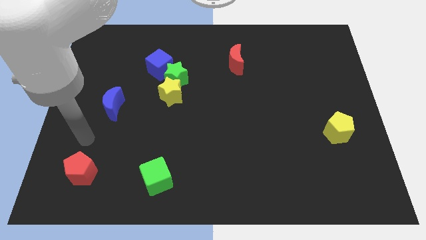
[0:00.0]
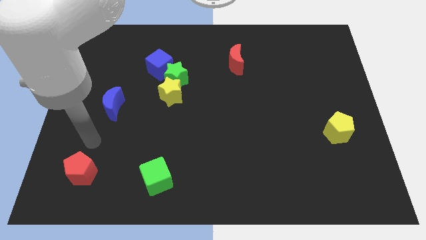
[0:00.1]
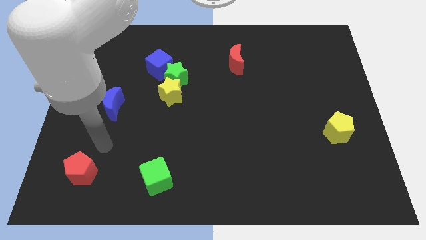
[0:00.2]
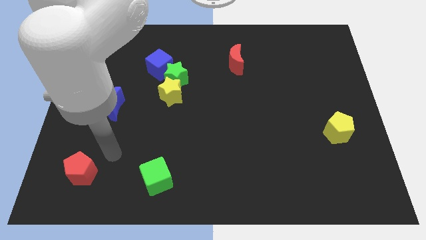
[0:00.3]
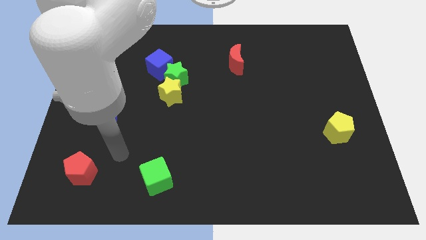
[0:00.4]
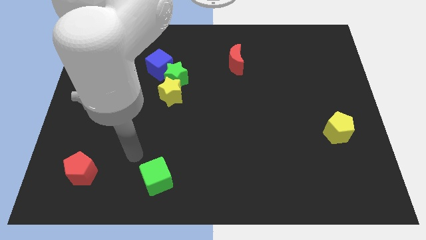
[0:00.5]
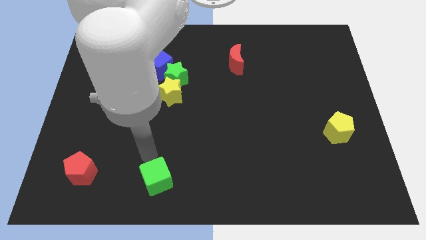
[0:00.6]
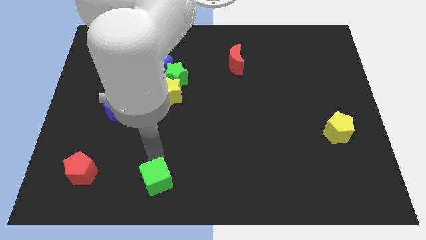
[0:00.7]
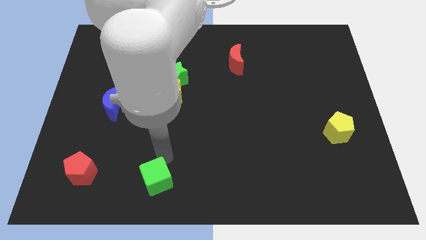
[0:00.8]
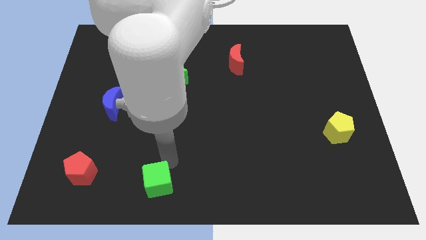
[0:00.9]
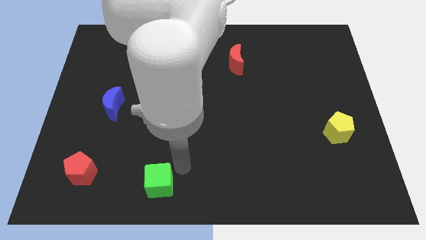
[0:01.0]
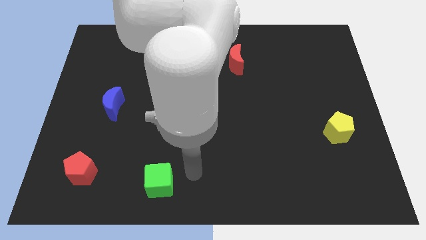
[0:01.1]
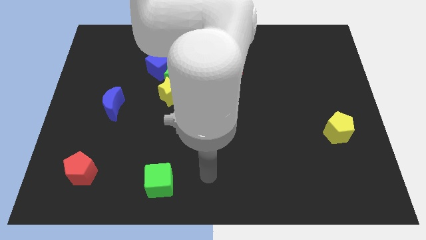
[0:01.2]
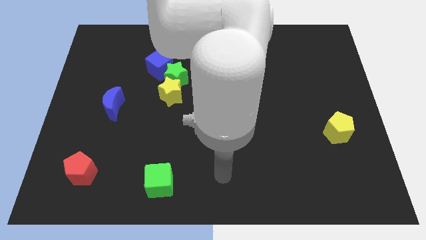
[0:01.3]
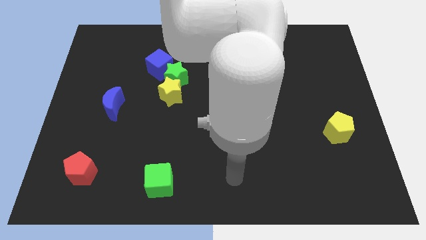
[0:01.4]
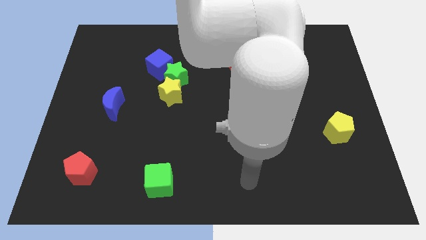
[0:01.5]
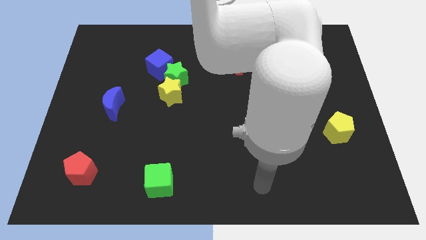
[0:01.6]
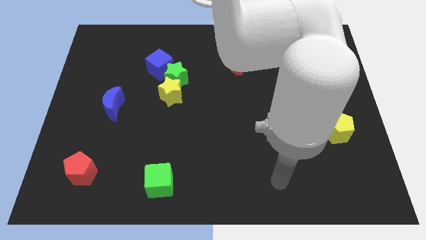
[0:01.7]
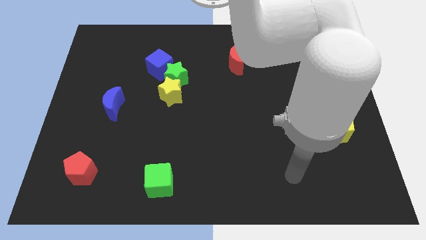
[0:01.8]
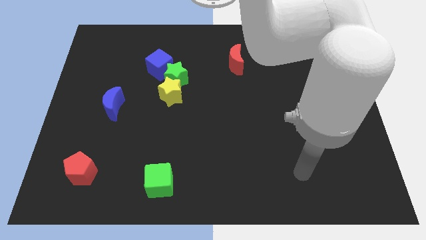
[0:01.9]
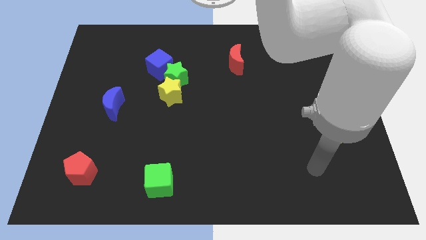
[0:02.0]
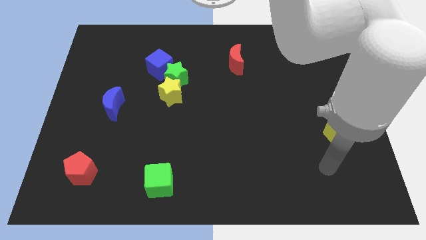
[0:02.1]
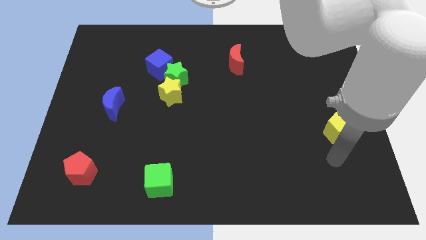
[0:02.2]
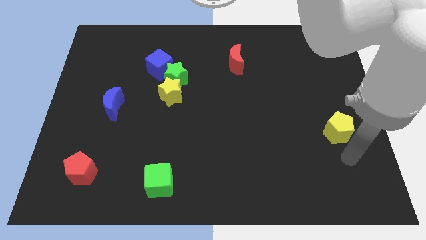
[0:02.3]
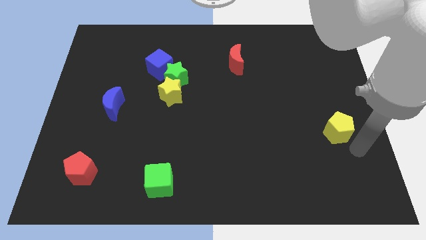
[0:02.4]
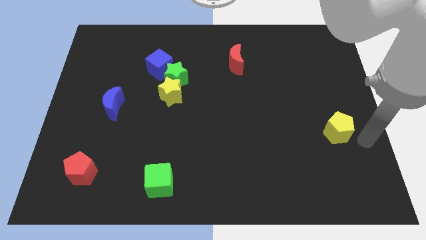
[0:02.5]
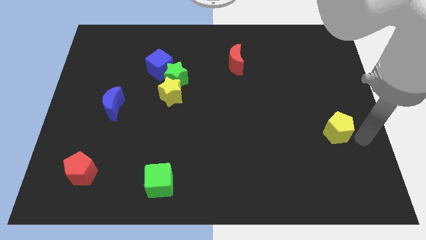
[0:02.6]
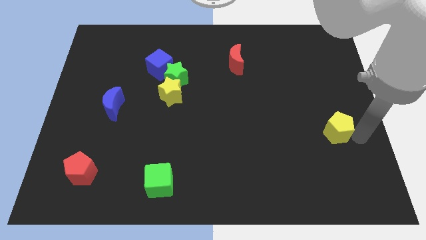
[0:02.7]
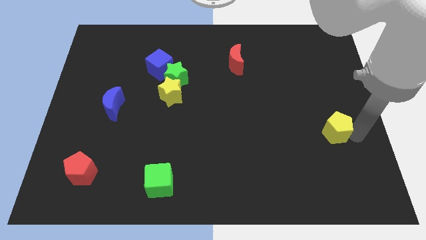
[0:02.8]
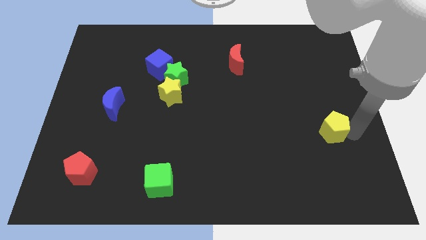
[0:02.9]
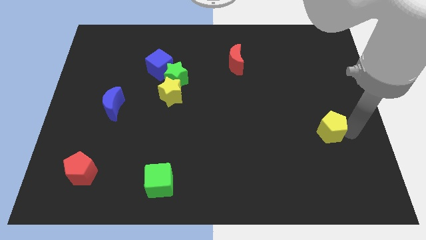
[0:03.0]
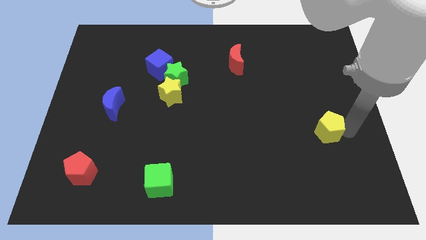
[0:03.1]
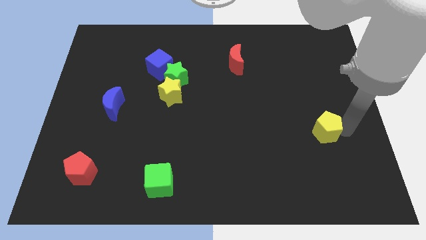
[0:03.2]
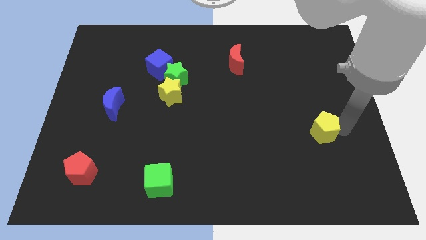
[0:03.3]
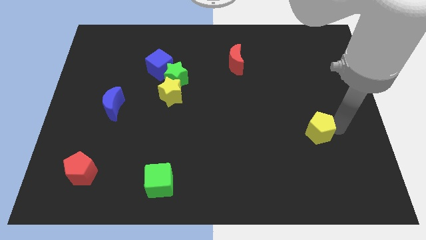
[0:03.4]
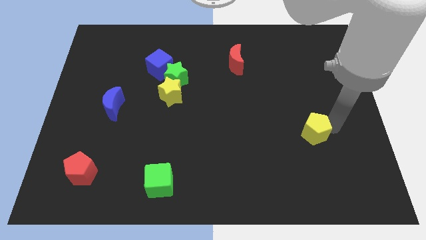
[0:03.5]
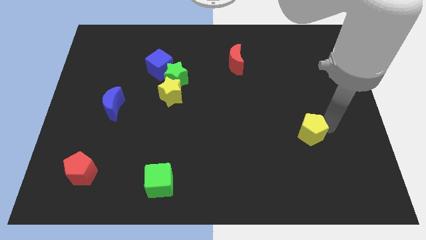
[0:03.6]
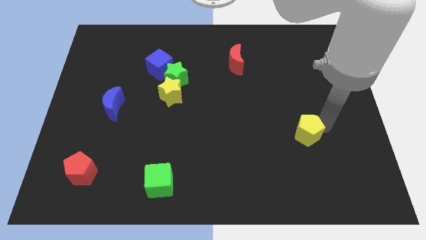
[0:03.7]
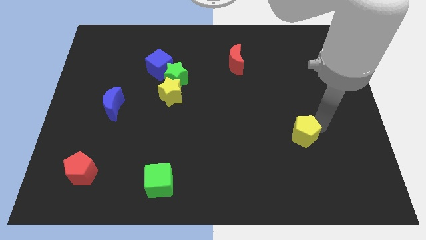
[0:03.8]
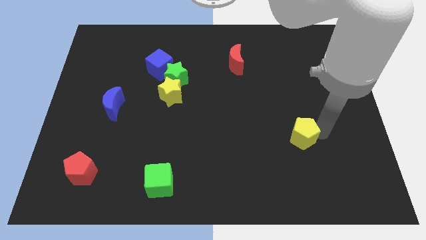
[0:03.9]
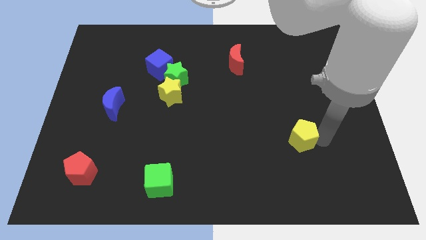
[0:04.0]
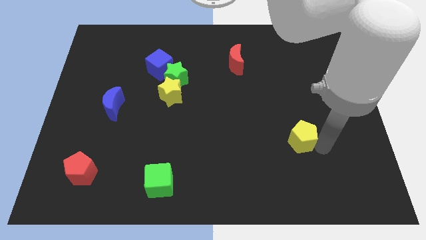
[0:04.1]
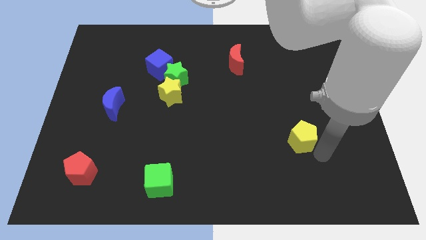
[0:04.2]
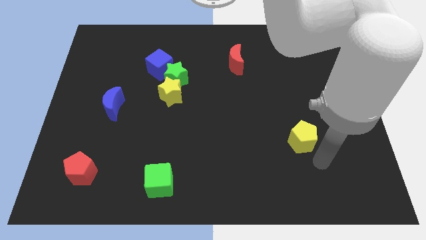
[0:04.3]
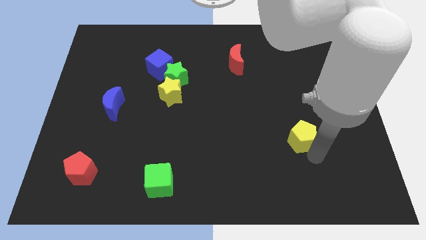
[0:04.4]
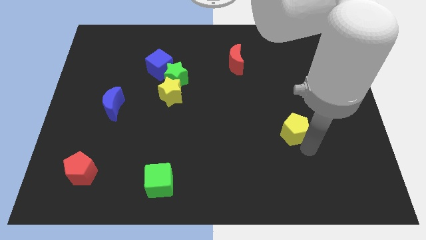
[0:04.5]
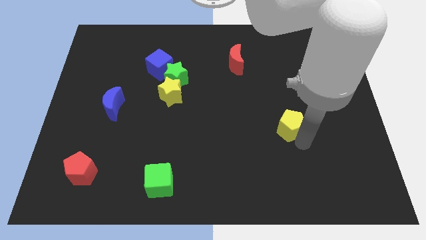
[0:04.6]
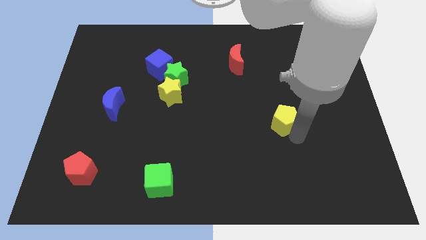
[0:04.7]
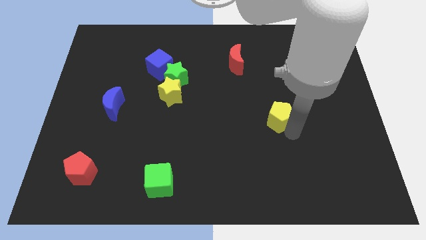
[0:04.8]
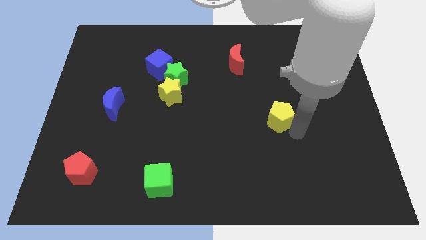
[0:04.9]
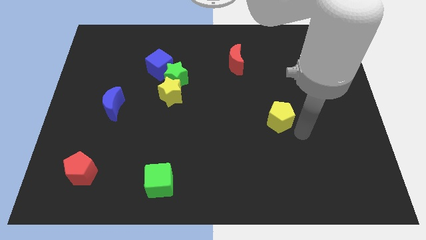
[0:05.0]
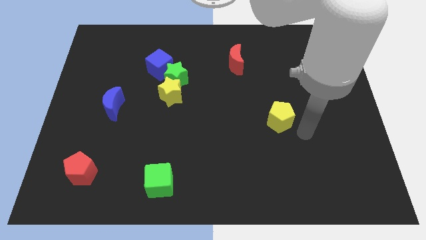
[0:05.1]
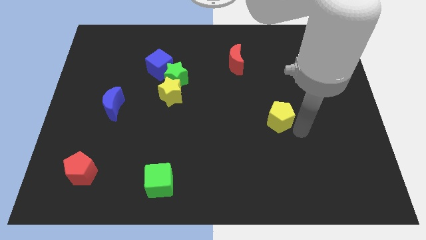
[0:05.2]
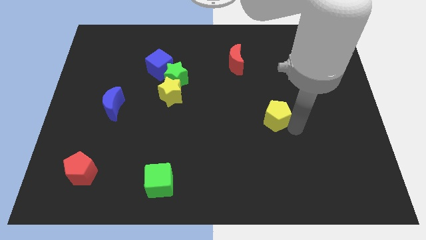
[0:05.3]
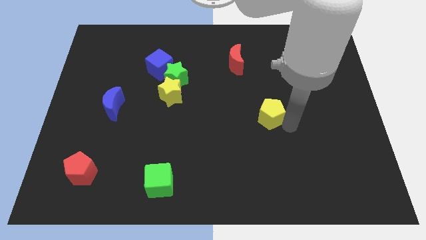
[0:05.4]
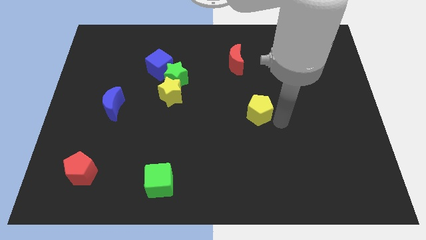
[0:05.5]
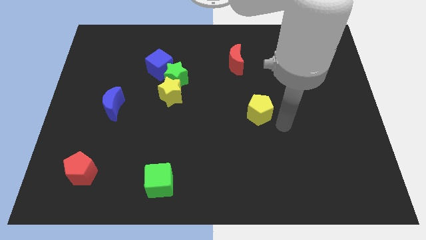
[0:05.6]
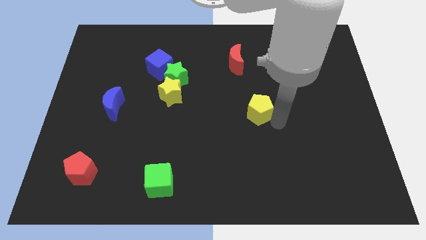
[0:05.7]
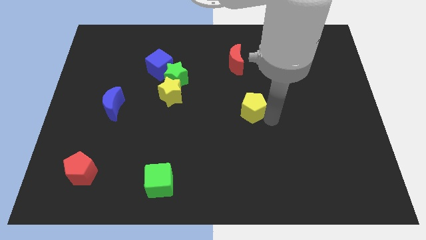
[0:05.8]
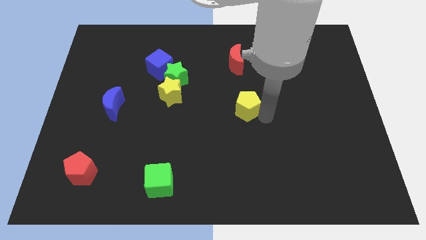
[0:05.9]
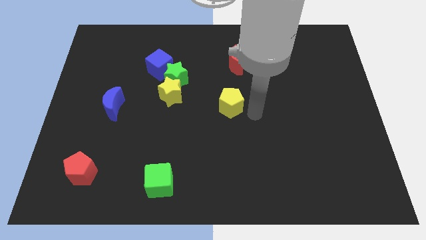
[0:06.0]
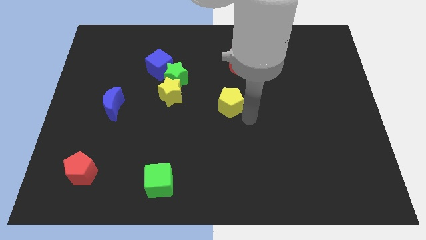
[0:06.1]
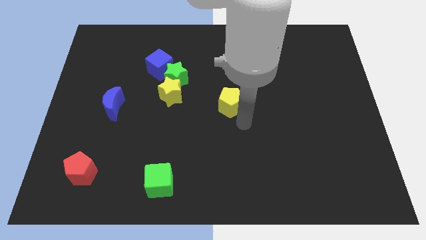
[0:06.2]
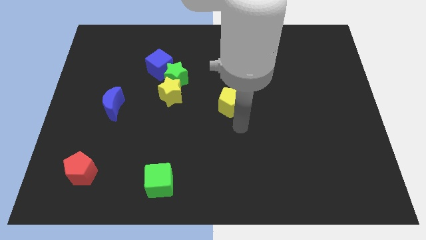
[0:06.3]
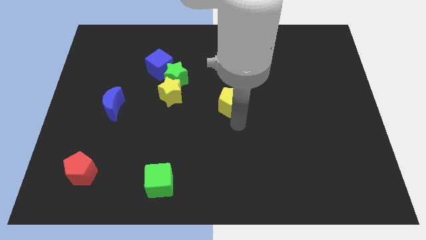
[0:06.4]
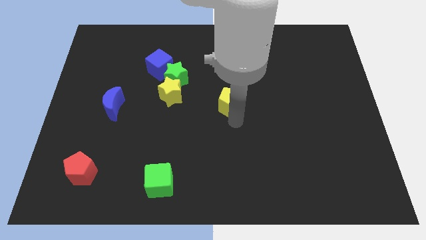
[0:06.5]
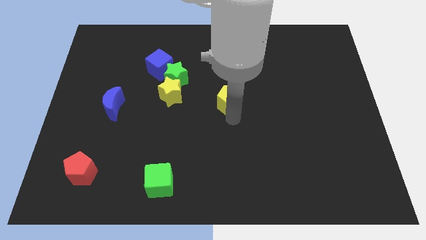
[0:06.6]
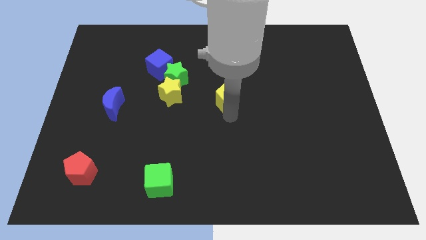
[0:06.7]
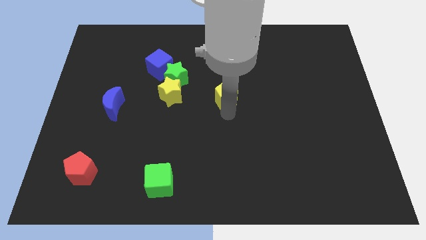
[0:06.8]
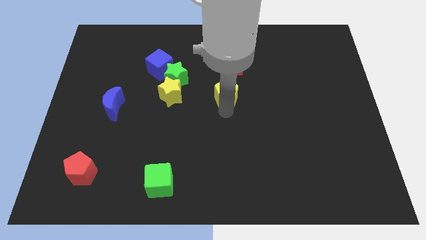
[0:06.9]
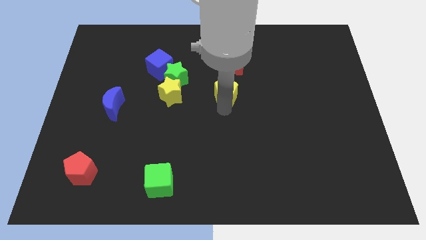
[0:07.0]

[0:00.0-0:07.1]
move the yellow pentagon to the right of the green star

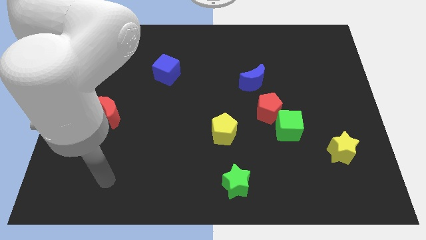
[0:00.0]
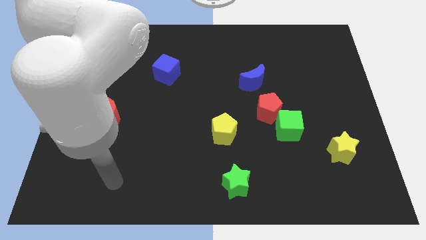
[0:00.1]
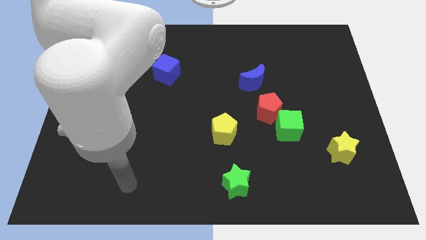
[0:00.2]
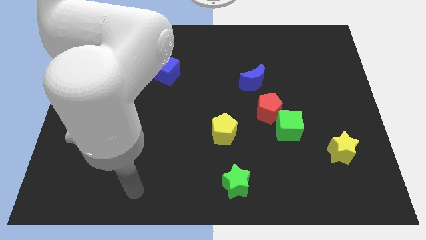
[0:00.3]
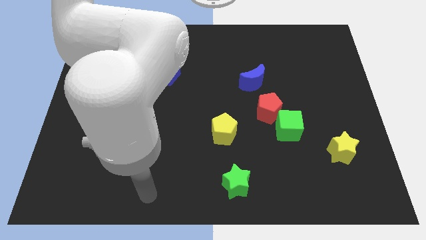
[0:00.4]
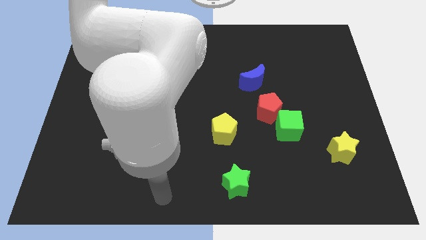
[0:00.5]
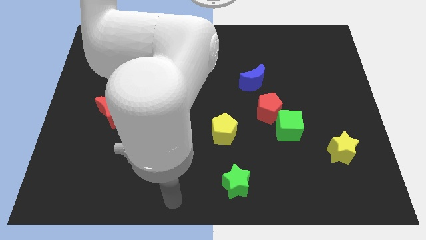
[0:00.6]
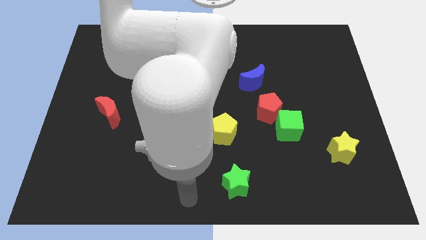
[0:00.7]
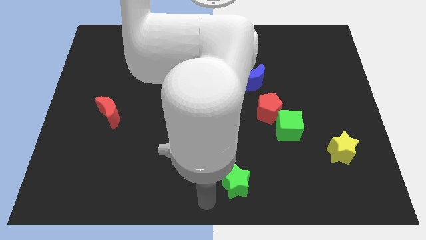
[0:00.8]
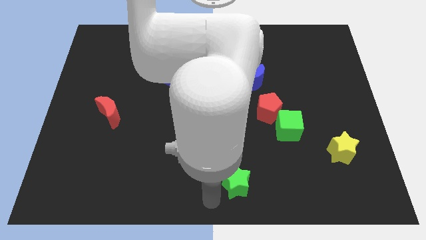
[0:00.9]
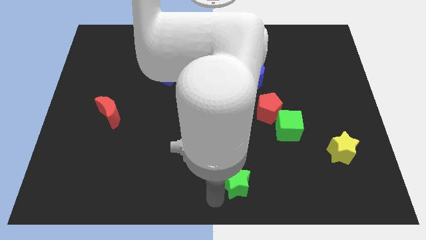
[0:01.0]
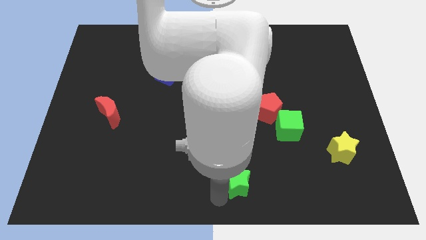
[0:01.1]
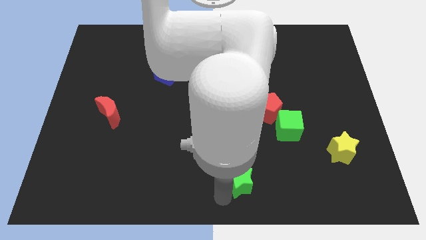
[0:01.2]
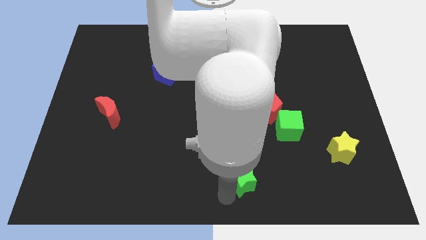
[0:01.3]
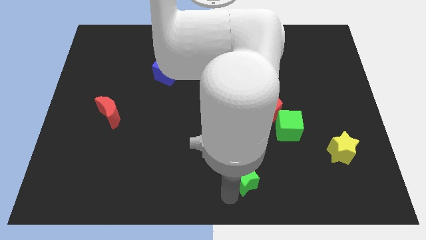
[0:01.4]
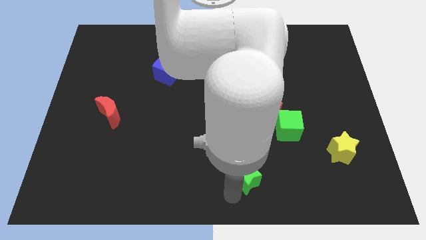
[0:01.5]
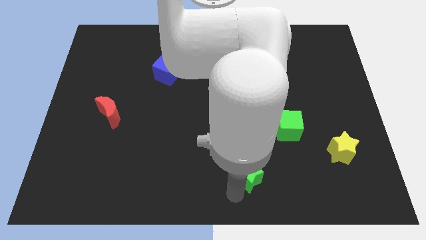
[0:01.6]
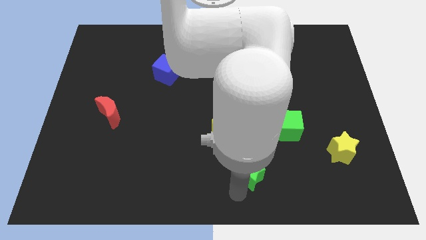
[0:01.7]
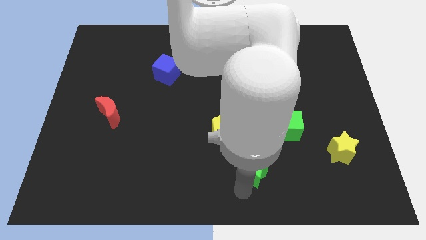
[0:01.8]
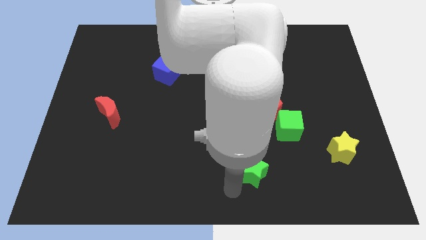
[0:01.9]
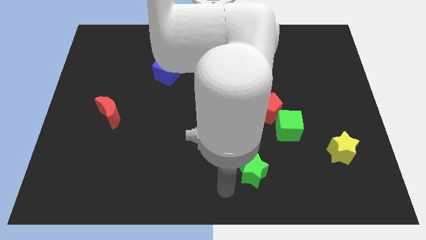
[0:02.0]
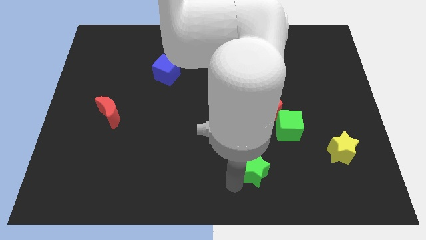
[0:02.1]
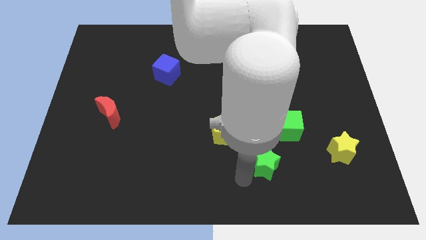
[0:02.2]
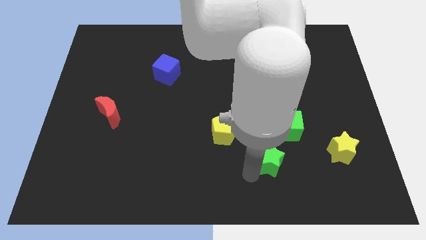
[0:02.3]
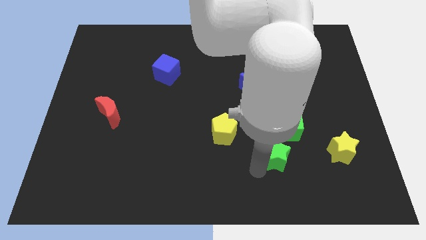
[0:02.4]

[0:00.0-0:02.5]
move the green star to the left of the yellow star
